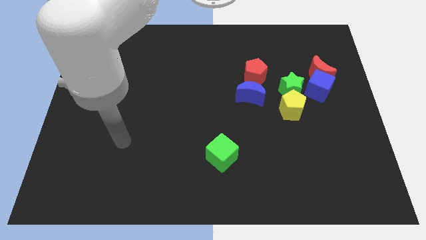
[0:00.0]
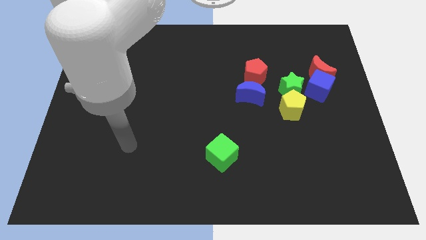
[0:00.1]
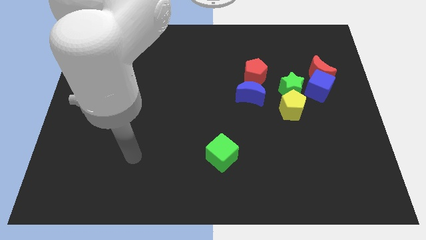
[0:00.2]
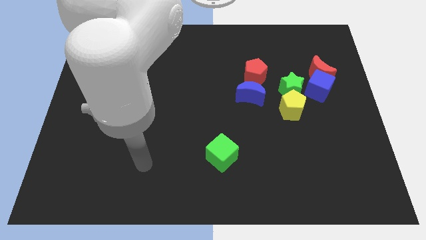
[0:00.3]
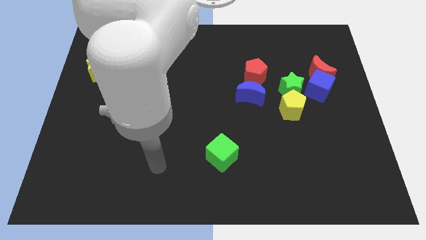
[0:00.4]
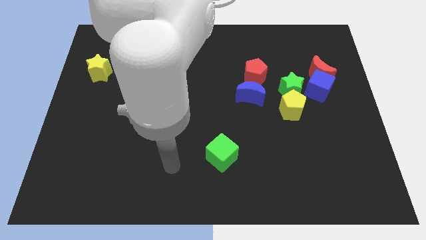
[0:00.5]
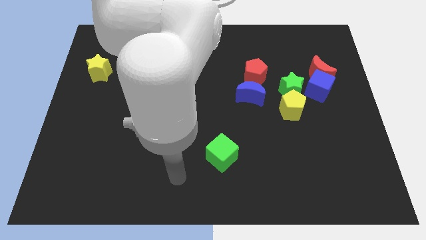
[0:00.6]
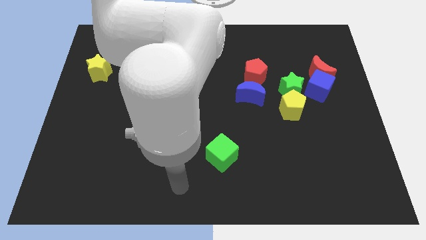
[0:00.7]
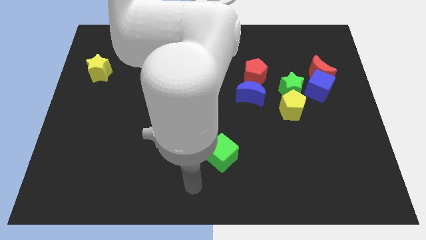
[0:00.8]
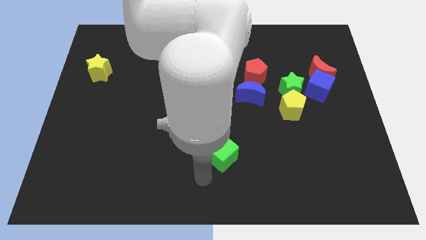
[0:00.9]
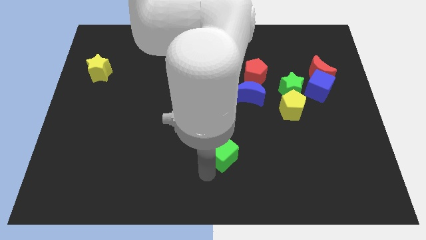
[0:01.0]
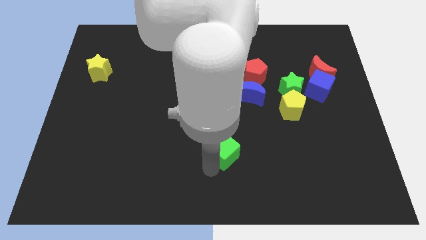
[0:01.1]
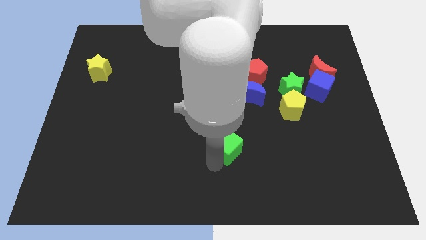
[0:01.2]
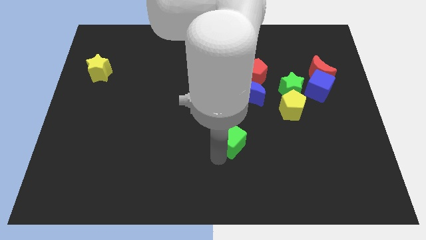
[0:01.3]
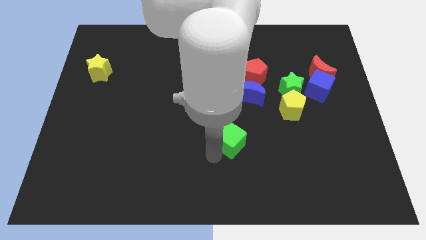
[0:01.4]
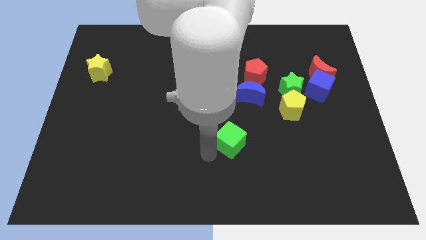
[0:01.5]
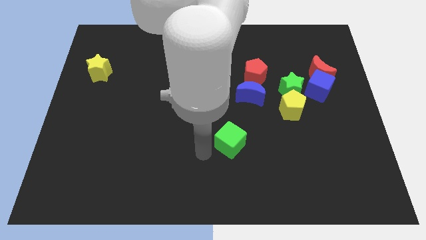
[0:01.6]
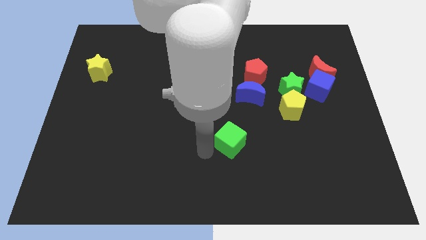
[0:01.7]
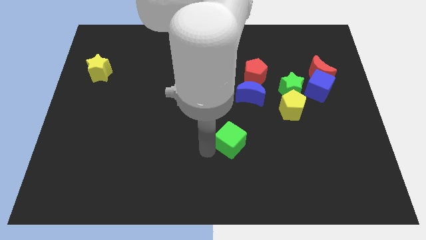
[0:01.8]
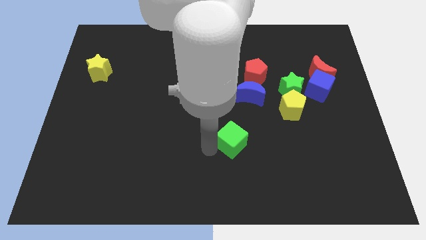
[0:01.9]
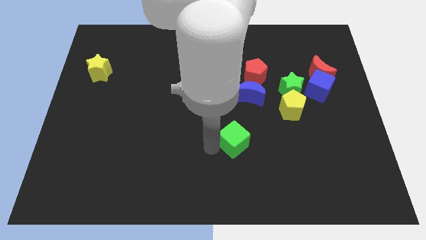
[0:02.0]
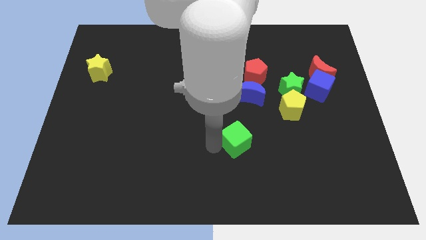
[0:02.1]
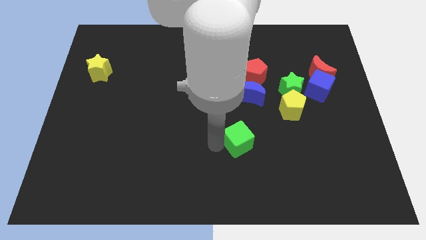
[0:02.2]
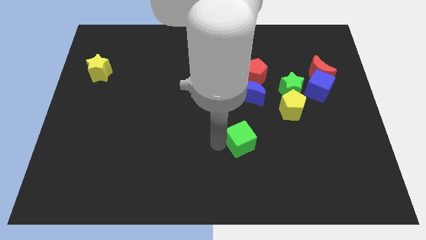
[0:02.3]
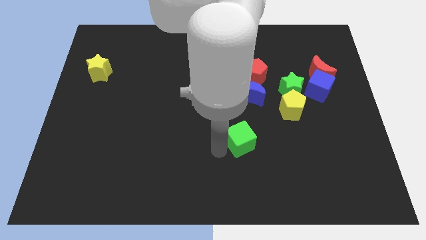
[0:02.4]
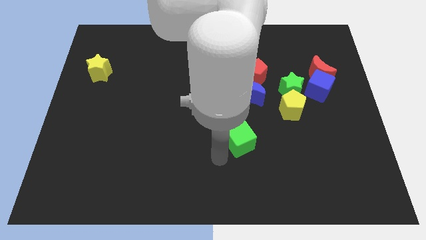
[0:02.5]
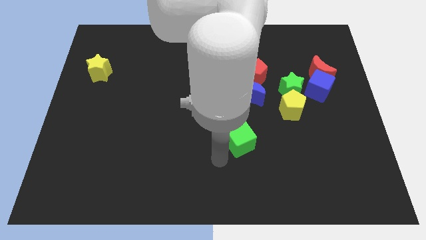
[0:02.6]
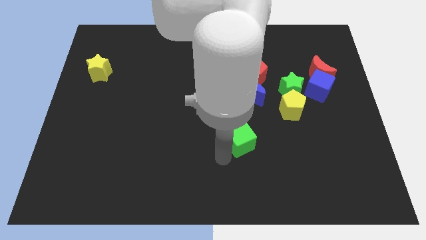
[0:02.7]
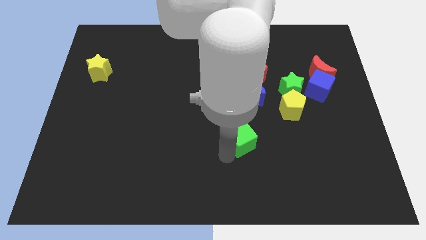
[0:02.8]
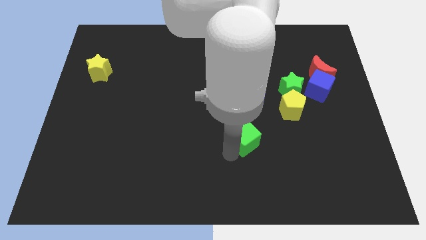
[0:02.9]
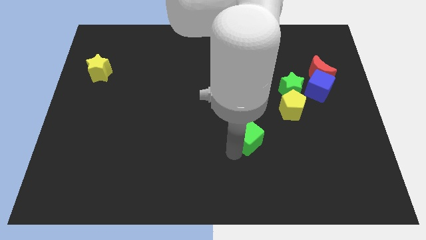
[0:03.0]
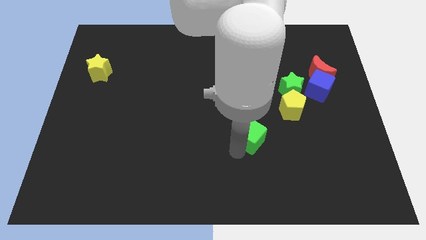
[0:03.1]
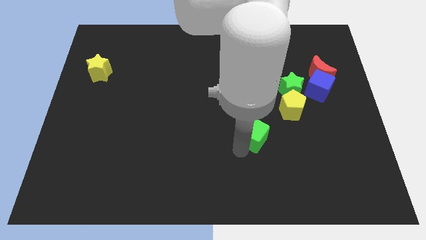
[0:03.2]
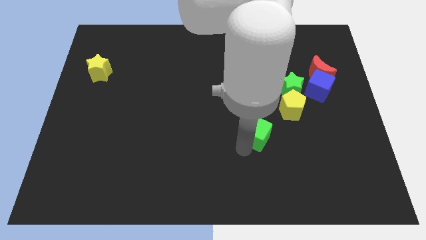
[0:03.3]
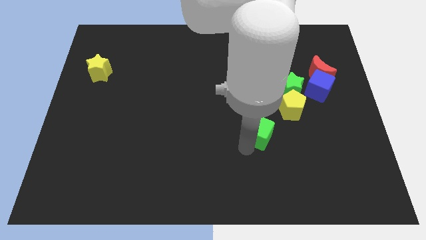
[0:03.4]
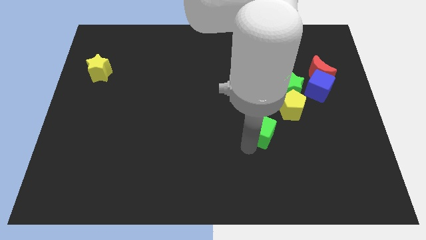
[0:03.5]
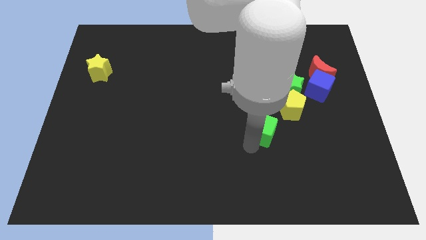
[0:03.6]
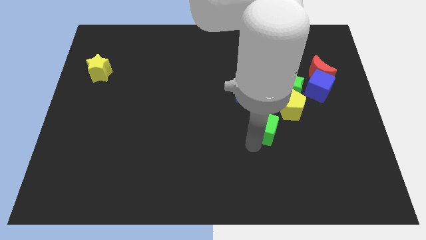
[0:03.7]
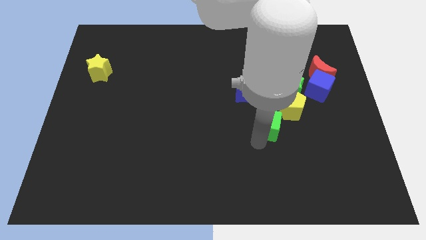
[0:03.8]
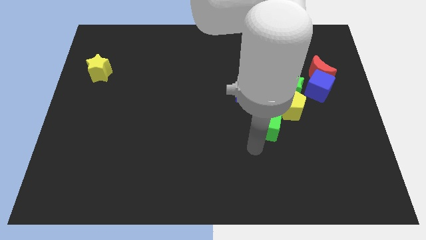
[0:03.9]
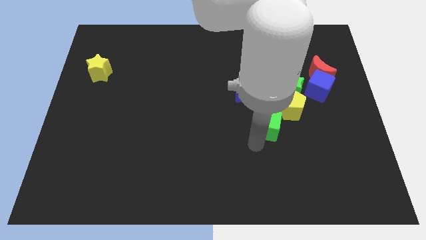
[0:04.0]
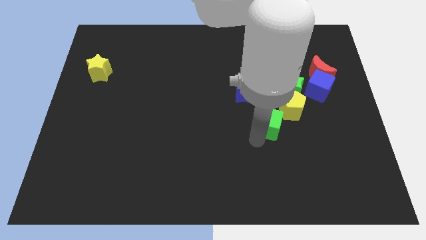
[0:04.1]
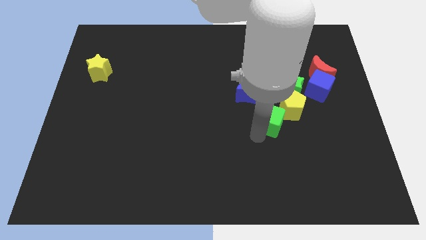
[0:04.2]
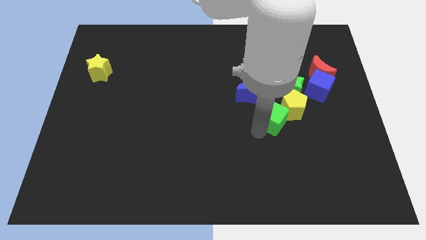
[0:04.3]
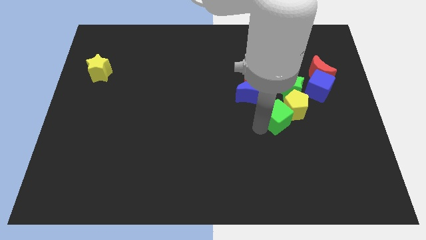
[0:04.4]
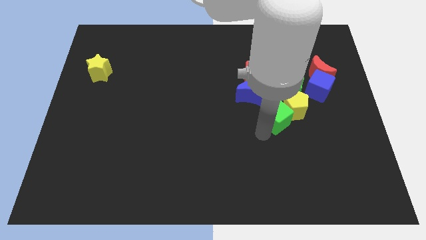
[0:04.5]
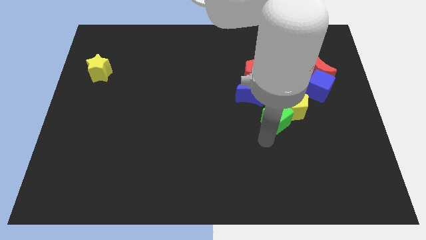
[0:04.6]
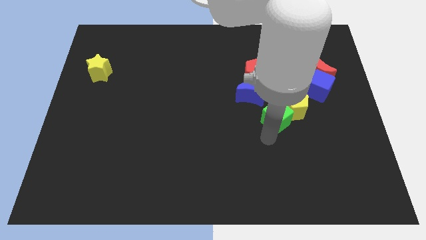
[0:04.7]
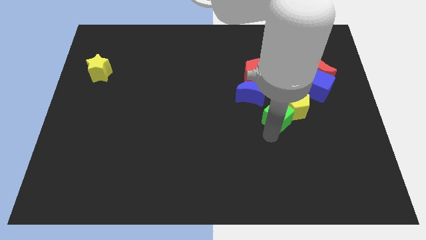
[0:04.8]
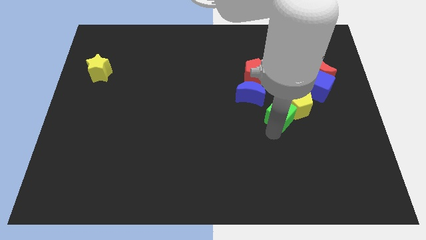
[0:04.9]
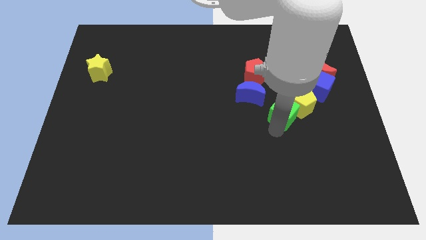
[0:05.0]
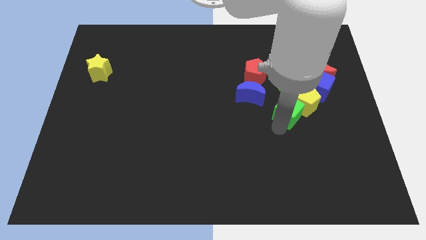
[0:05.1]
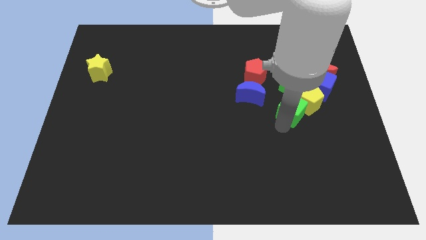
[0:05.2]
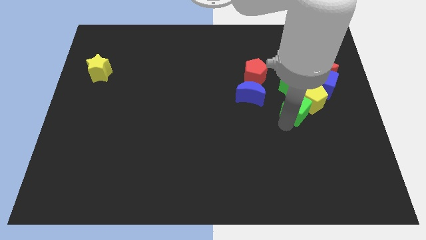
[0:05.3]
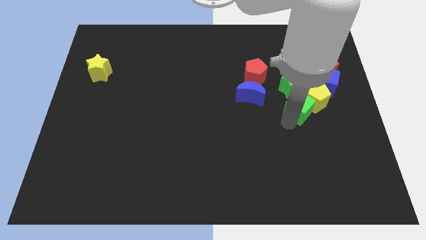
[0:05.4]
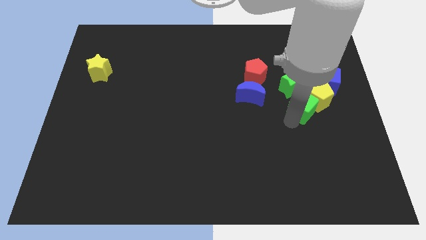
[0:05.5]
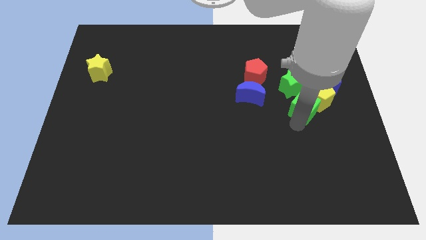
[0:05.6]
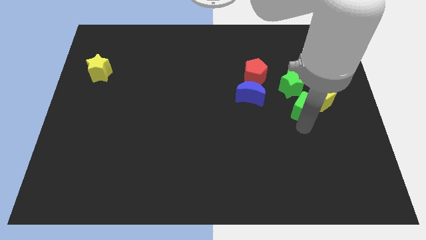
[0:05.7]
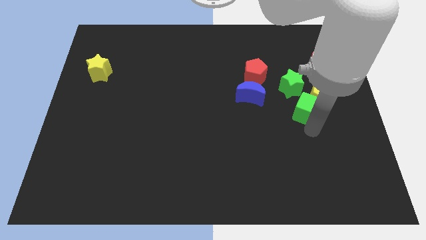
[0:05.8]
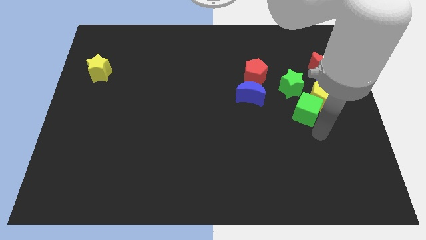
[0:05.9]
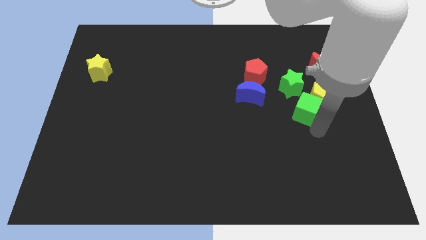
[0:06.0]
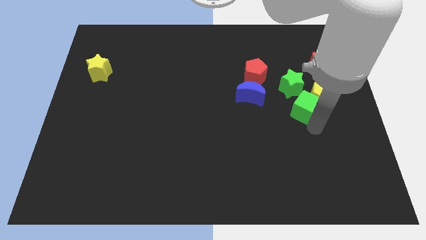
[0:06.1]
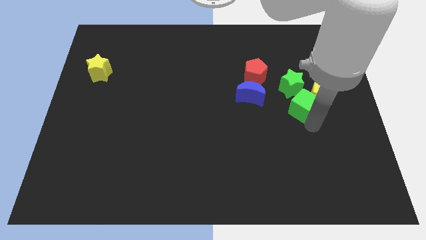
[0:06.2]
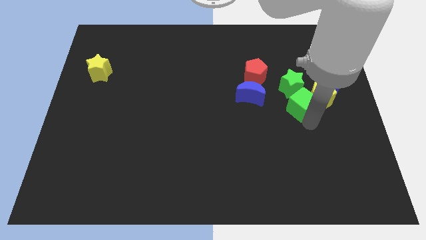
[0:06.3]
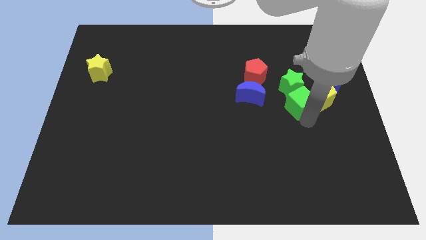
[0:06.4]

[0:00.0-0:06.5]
put the green cube close to the green star

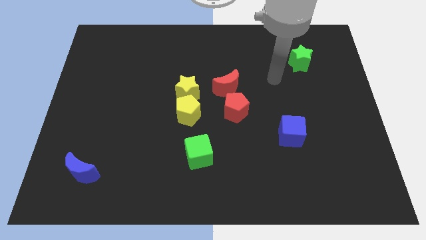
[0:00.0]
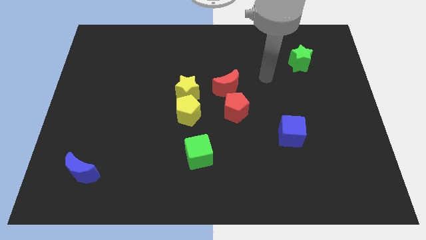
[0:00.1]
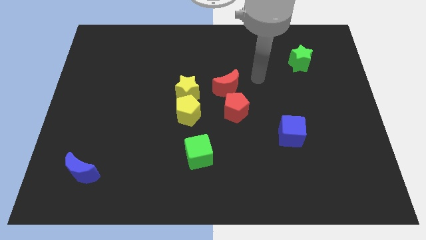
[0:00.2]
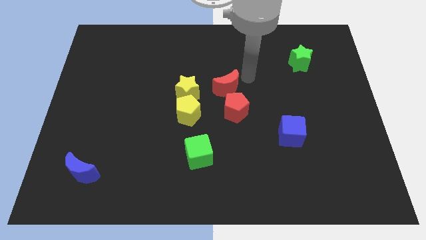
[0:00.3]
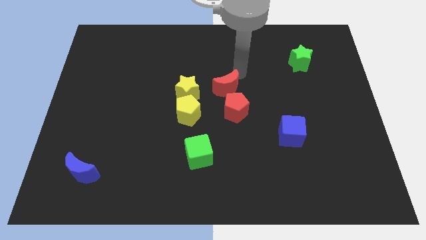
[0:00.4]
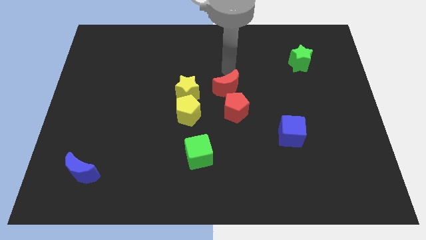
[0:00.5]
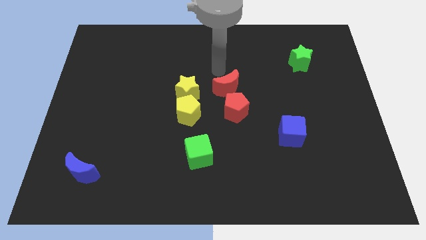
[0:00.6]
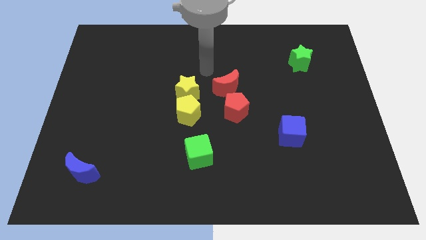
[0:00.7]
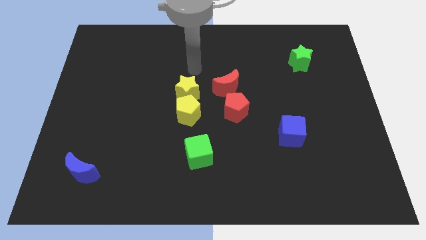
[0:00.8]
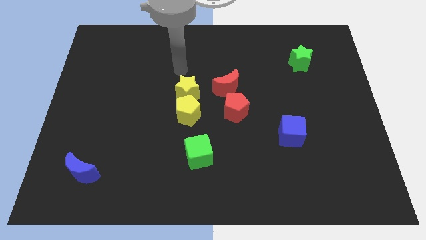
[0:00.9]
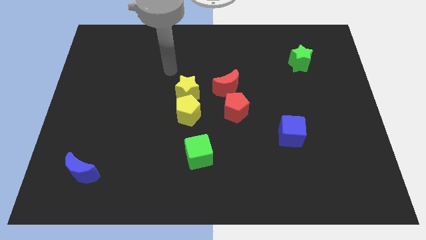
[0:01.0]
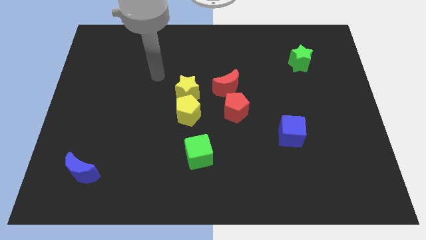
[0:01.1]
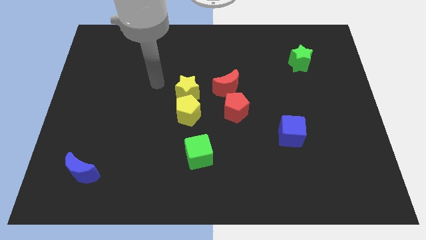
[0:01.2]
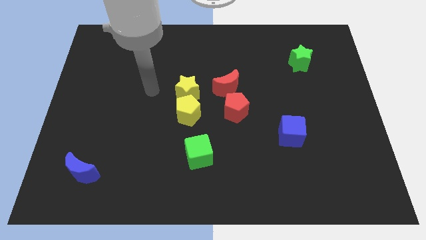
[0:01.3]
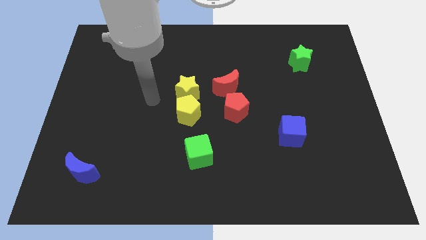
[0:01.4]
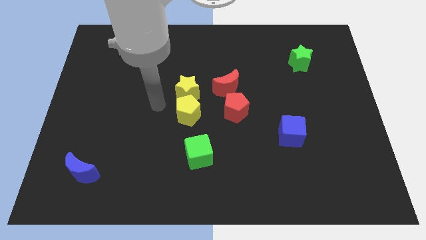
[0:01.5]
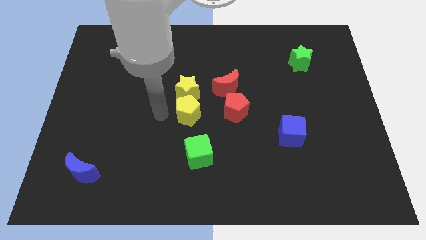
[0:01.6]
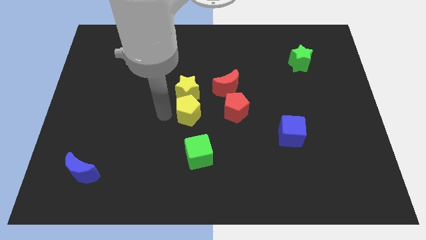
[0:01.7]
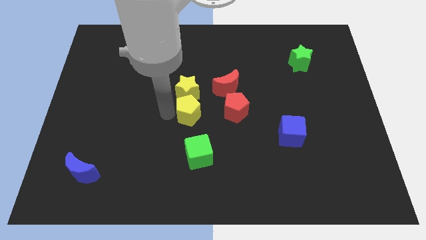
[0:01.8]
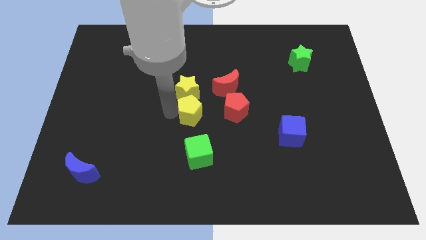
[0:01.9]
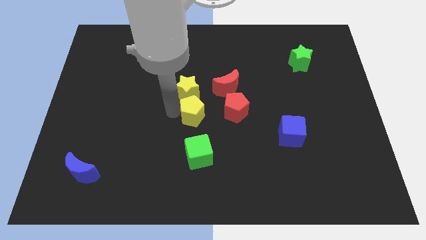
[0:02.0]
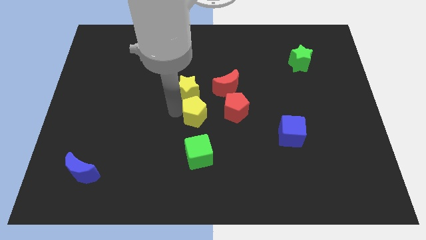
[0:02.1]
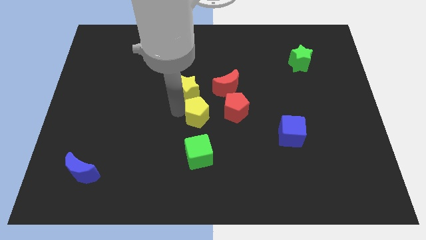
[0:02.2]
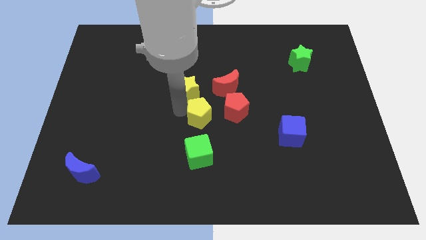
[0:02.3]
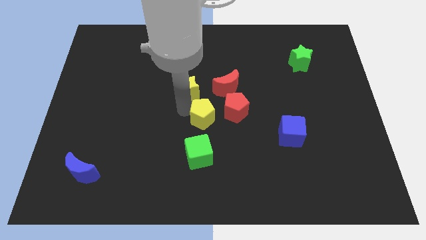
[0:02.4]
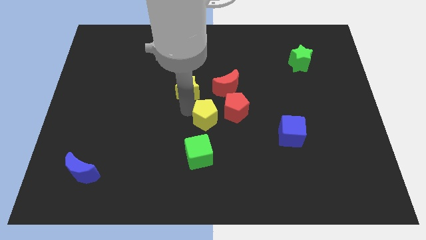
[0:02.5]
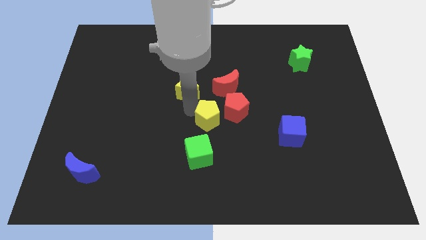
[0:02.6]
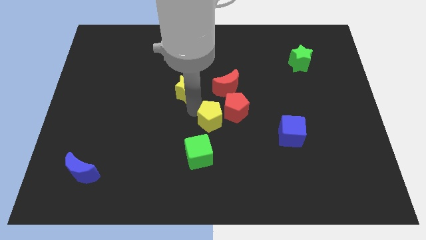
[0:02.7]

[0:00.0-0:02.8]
put the yellow pentagon towards the red pentagon
